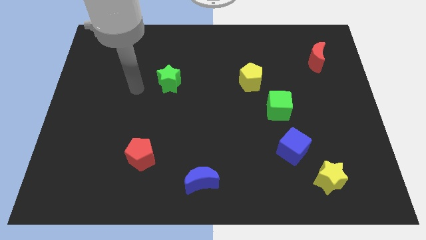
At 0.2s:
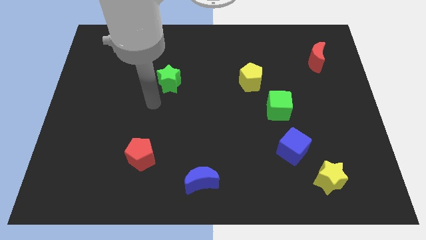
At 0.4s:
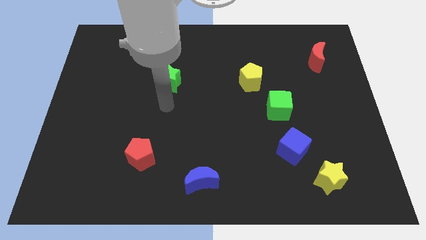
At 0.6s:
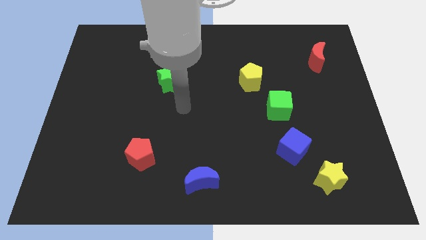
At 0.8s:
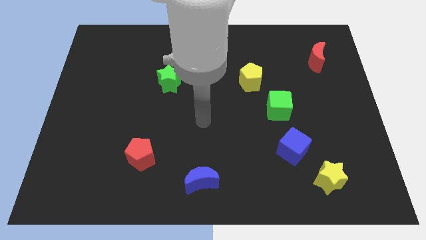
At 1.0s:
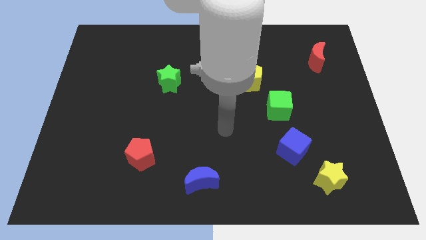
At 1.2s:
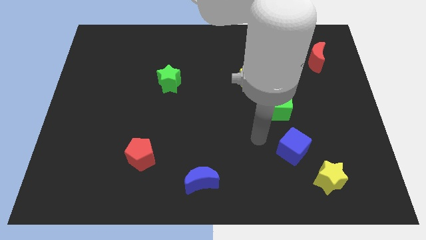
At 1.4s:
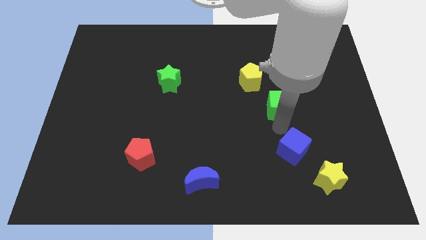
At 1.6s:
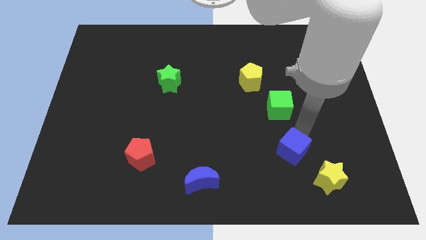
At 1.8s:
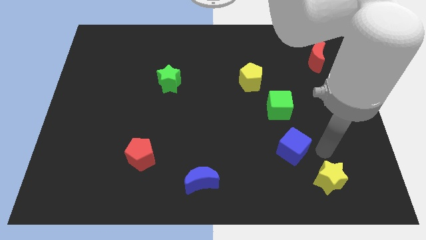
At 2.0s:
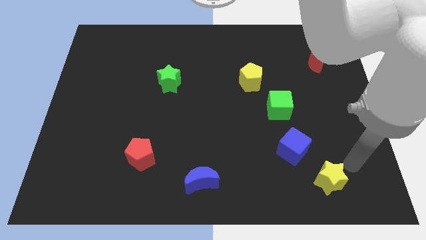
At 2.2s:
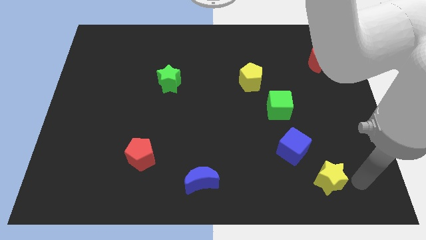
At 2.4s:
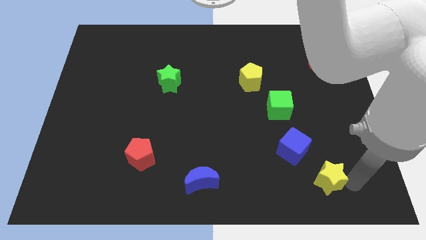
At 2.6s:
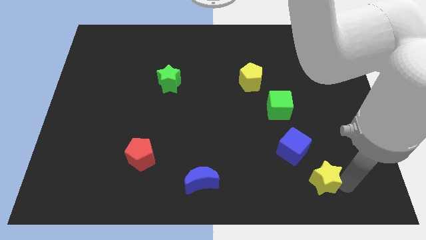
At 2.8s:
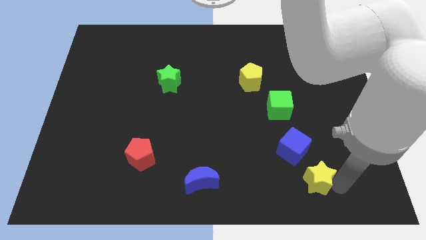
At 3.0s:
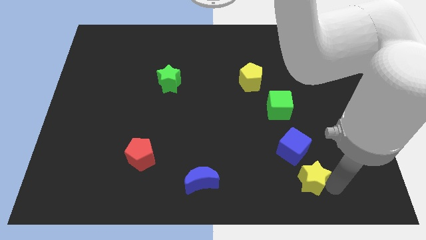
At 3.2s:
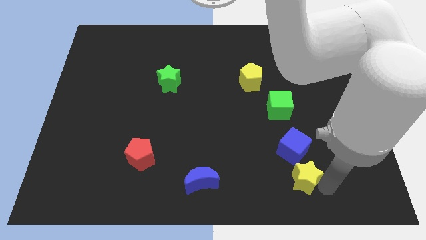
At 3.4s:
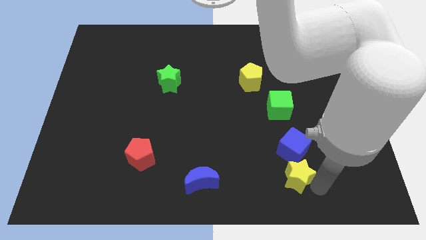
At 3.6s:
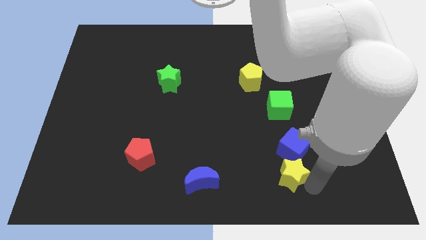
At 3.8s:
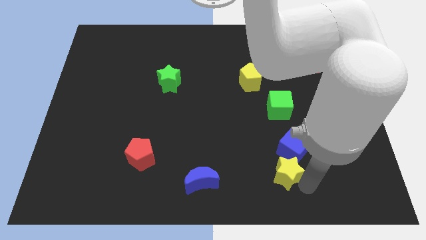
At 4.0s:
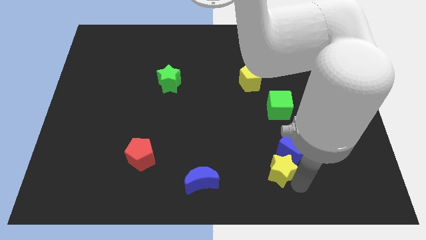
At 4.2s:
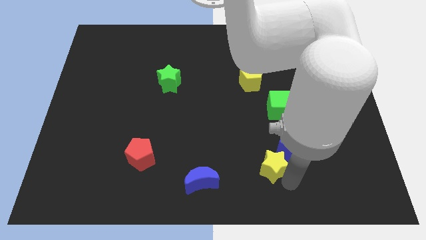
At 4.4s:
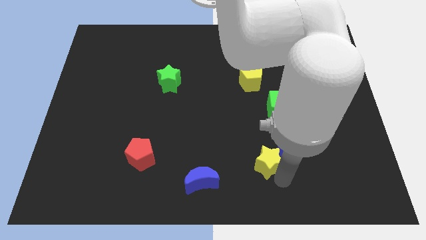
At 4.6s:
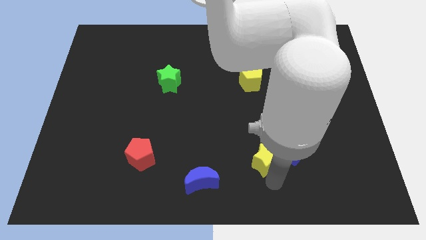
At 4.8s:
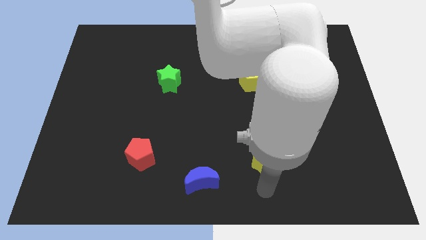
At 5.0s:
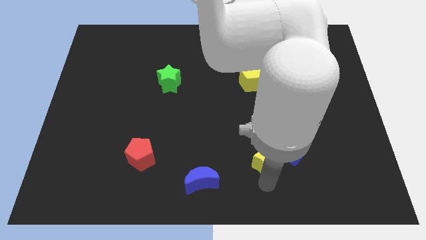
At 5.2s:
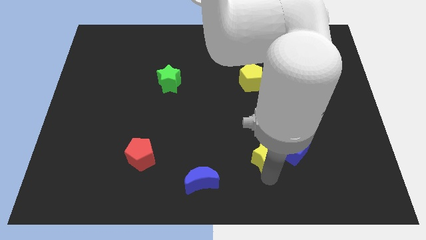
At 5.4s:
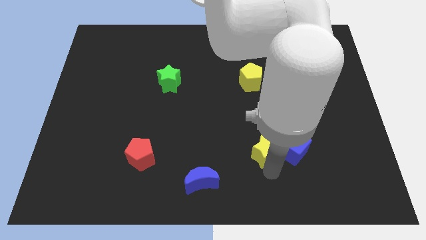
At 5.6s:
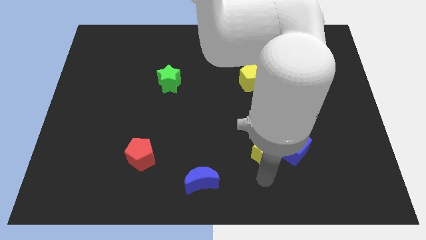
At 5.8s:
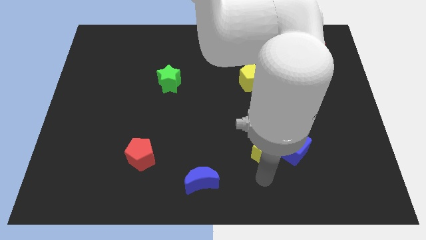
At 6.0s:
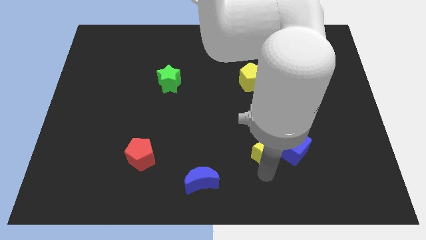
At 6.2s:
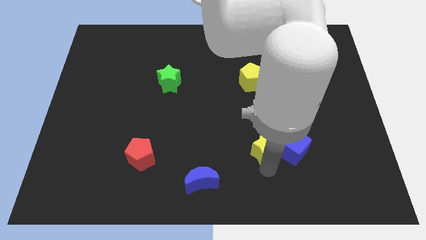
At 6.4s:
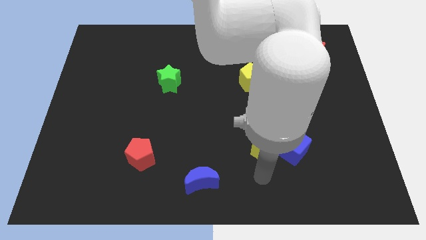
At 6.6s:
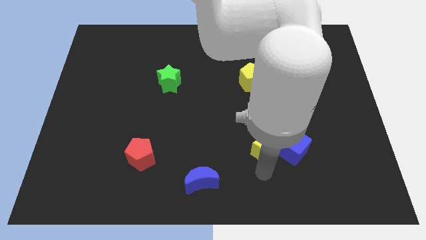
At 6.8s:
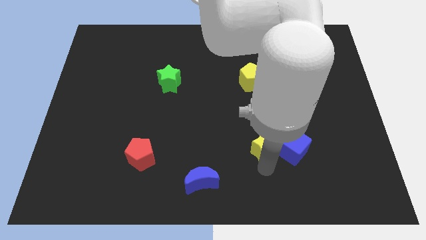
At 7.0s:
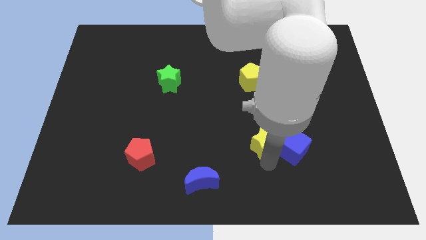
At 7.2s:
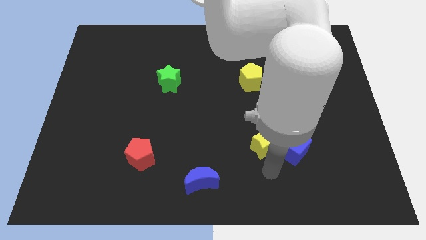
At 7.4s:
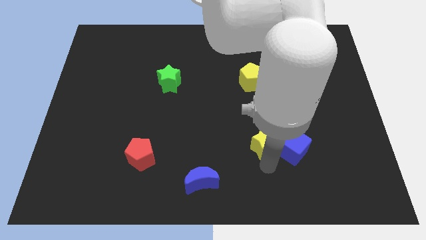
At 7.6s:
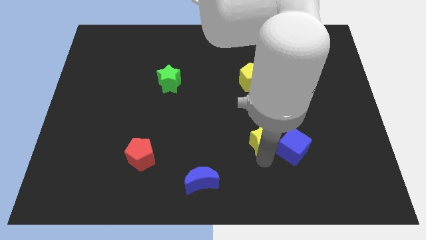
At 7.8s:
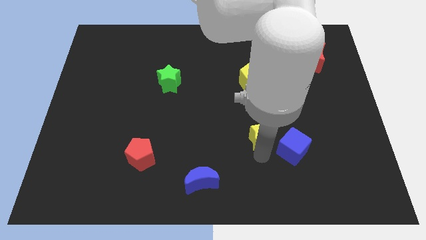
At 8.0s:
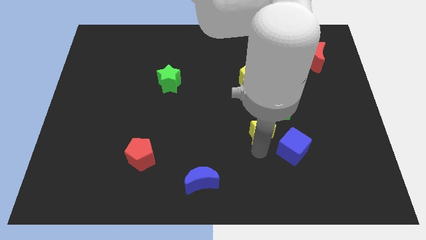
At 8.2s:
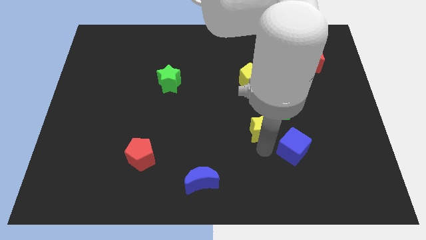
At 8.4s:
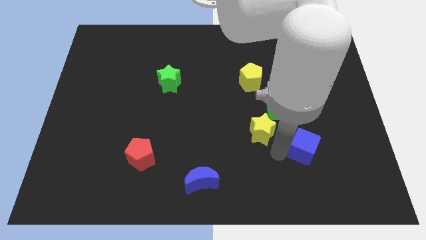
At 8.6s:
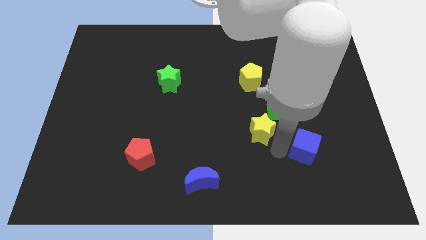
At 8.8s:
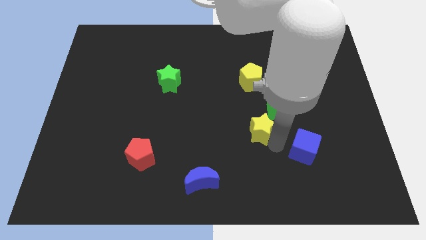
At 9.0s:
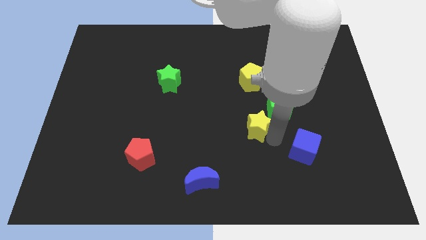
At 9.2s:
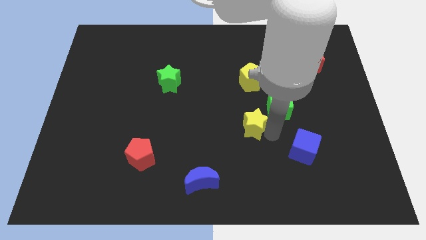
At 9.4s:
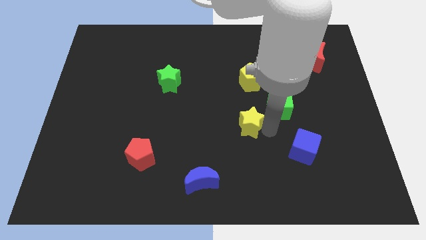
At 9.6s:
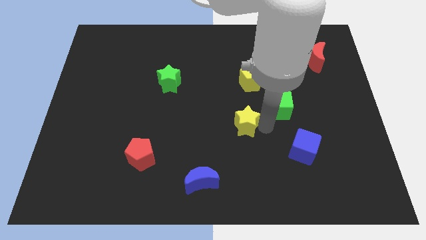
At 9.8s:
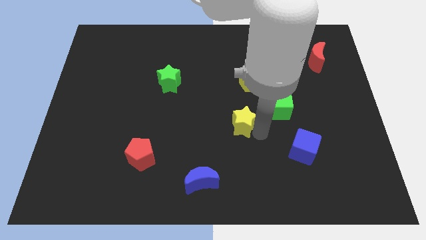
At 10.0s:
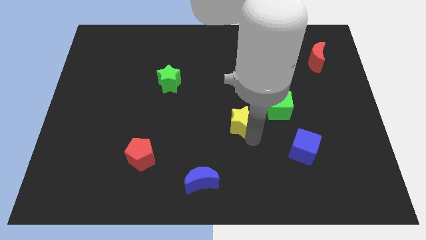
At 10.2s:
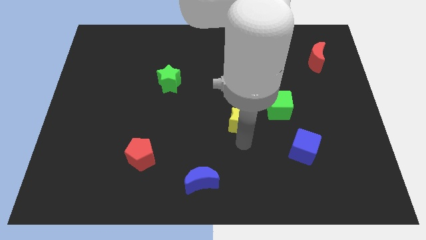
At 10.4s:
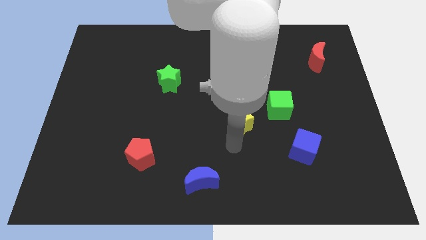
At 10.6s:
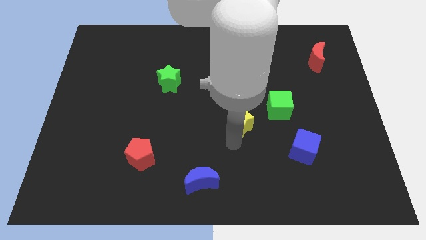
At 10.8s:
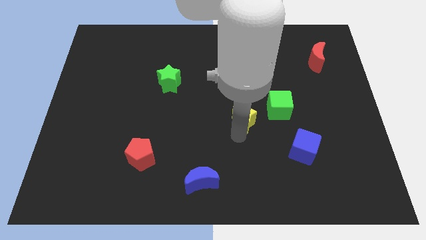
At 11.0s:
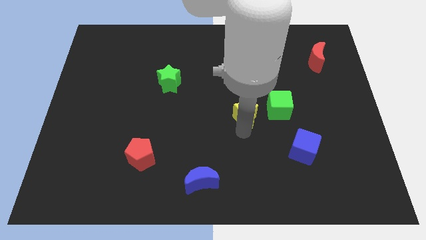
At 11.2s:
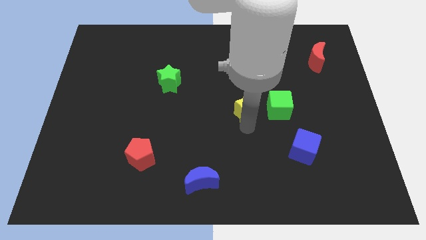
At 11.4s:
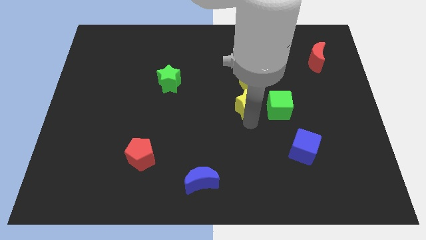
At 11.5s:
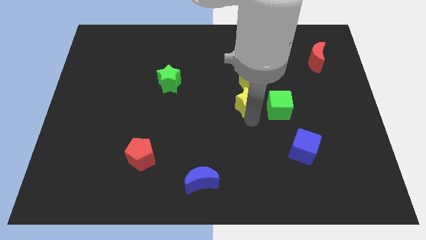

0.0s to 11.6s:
put the yellow star to the bottom left side of the yellow pentagon

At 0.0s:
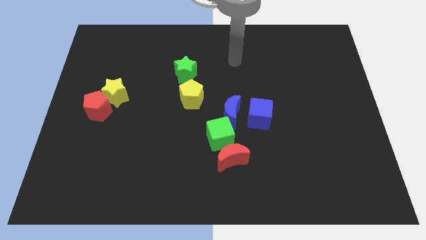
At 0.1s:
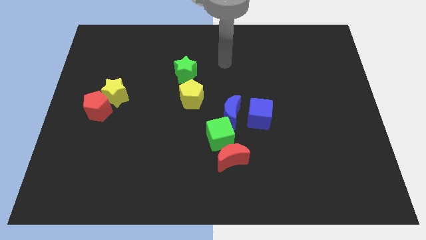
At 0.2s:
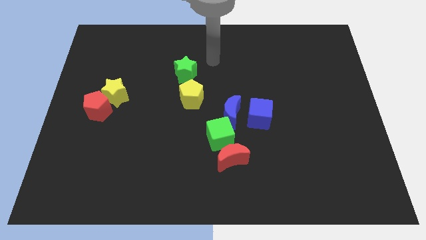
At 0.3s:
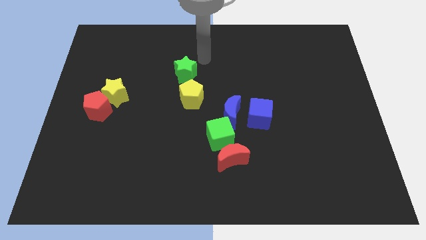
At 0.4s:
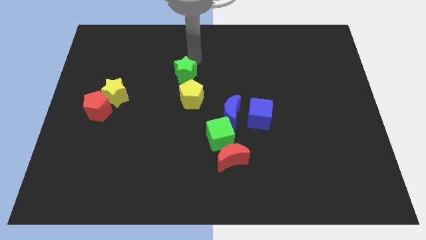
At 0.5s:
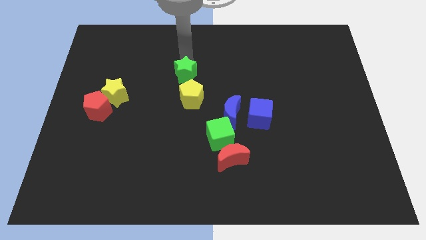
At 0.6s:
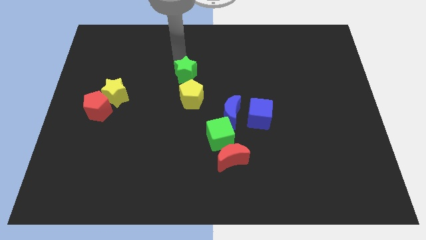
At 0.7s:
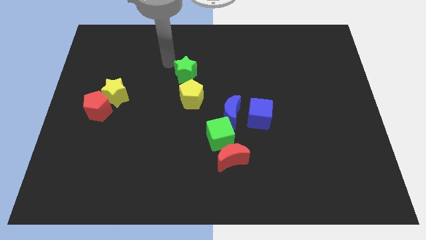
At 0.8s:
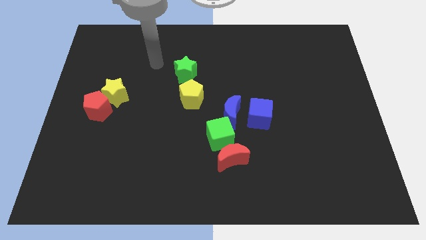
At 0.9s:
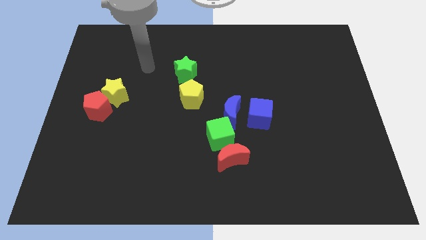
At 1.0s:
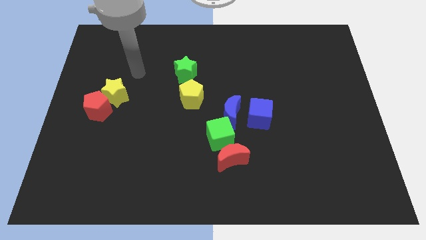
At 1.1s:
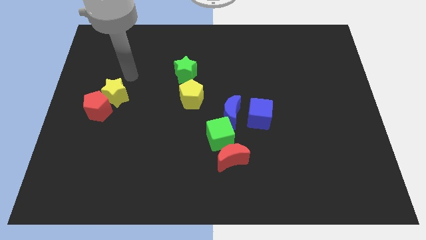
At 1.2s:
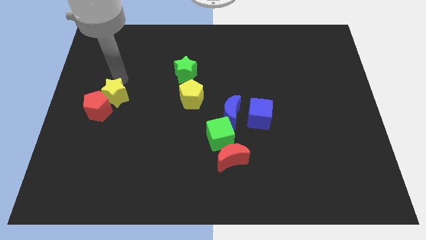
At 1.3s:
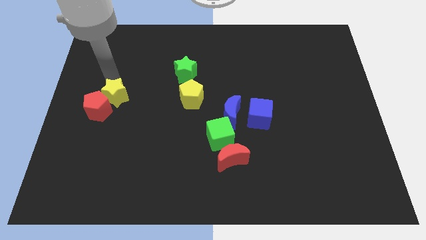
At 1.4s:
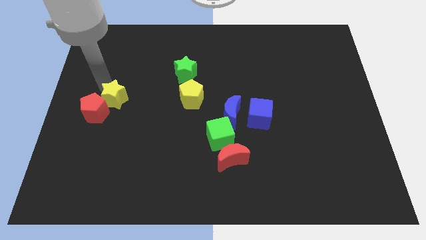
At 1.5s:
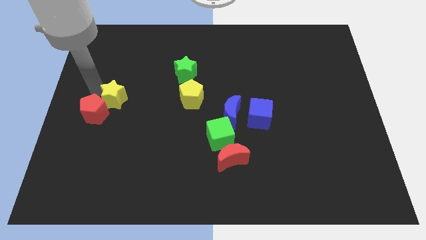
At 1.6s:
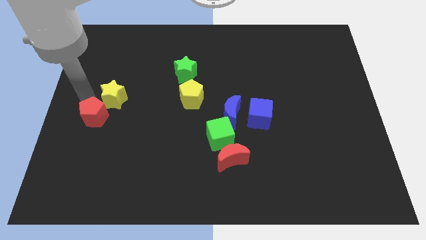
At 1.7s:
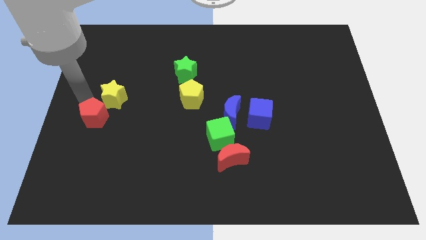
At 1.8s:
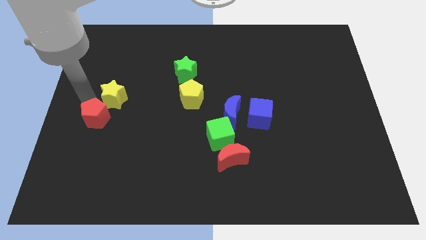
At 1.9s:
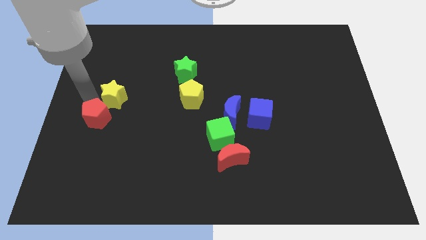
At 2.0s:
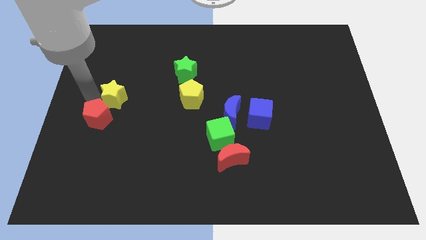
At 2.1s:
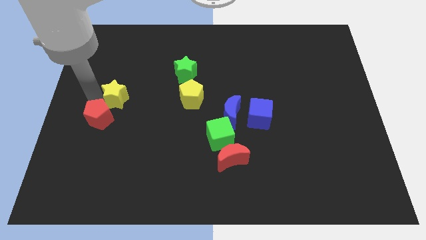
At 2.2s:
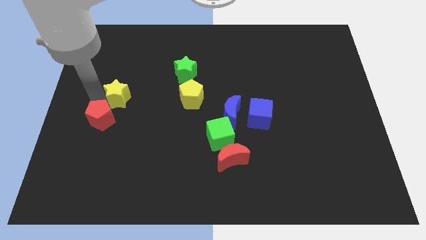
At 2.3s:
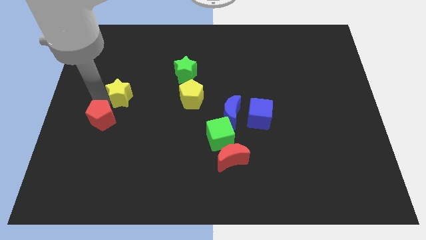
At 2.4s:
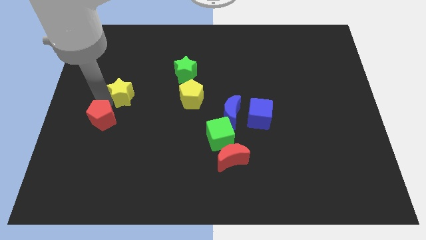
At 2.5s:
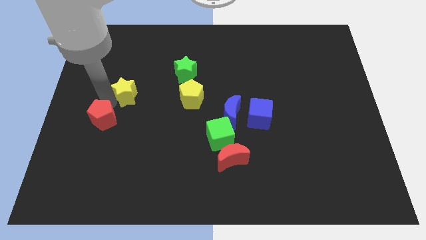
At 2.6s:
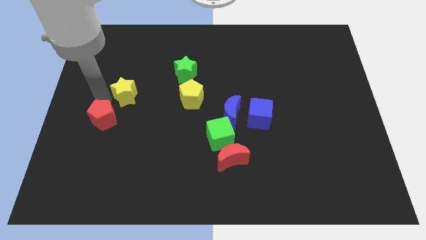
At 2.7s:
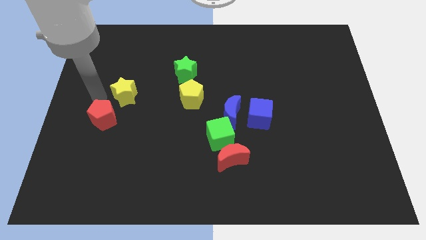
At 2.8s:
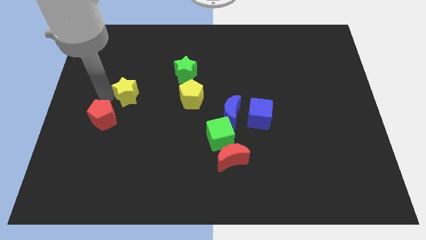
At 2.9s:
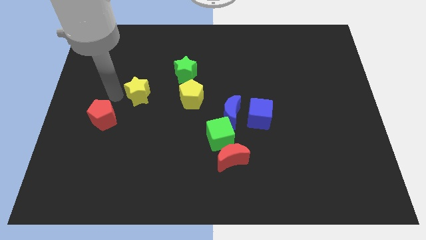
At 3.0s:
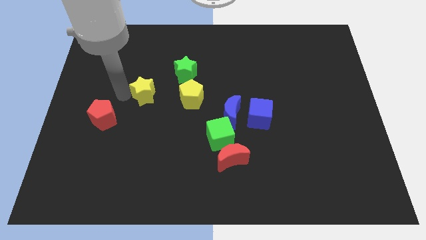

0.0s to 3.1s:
put the yellow star to the bottom left of the green star
